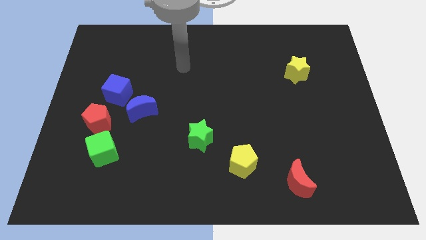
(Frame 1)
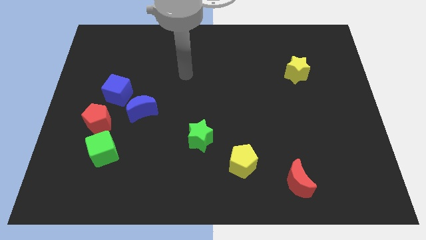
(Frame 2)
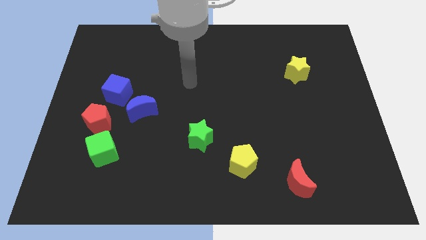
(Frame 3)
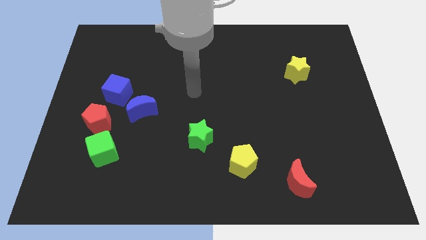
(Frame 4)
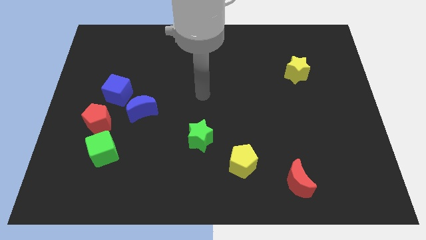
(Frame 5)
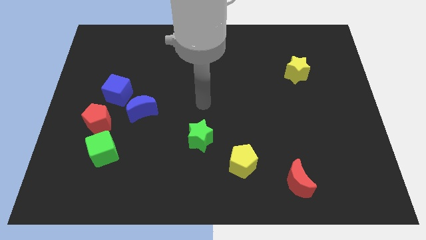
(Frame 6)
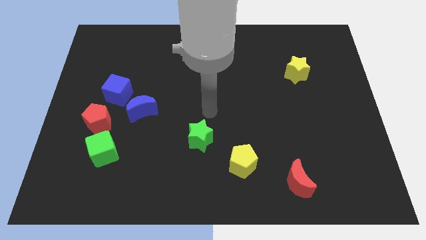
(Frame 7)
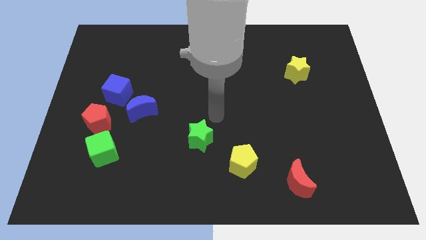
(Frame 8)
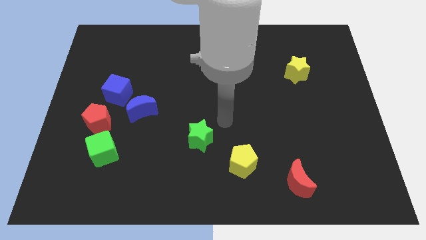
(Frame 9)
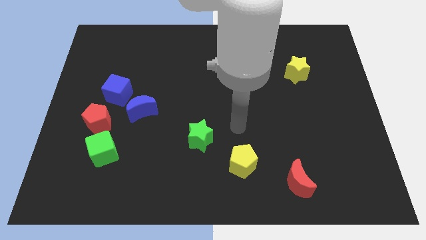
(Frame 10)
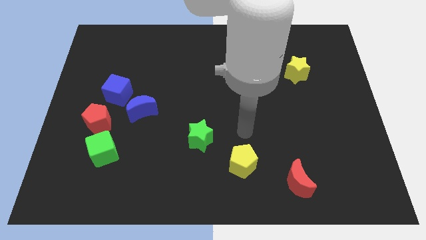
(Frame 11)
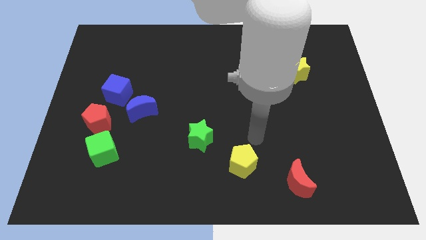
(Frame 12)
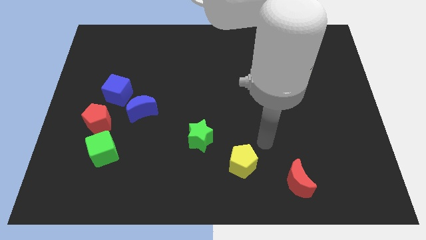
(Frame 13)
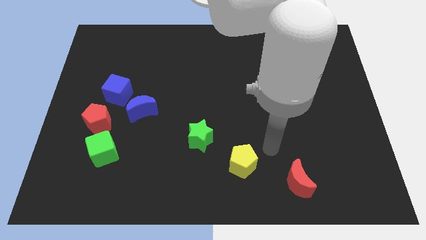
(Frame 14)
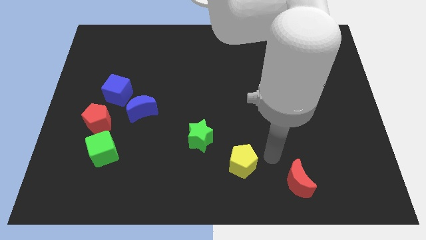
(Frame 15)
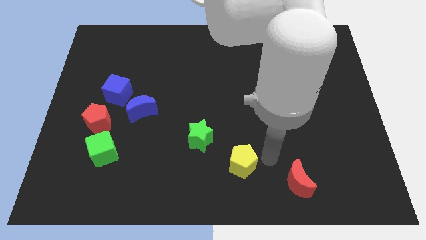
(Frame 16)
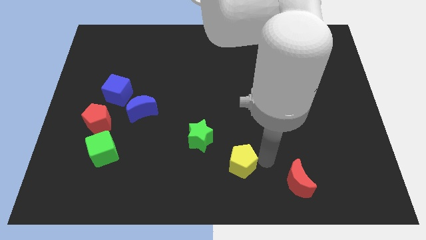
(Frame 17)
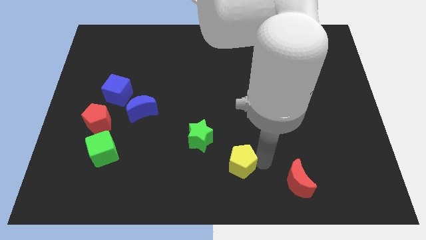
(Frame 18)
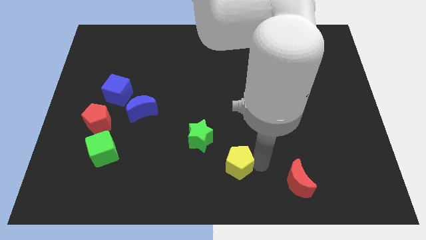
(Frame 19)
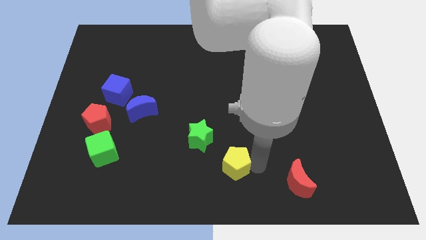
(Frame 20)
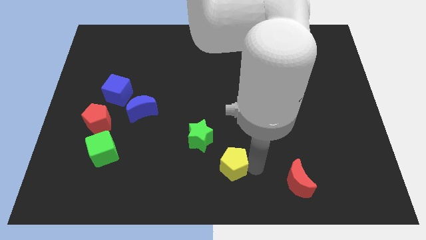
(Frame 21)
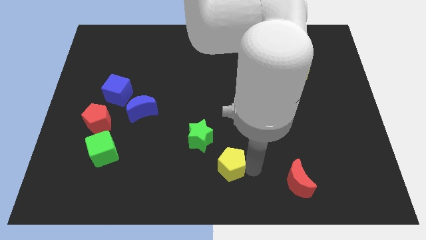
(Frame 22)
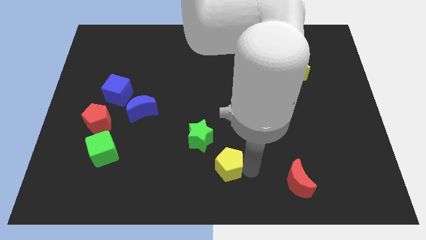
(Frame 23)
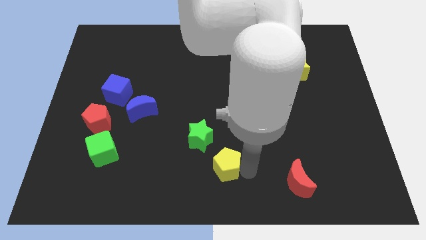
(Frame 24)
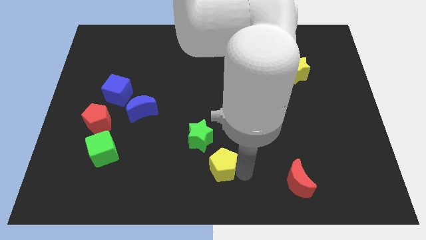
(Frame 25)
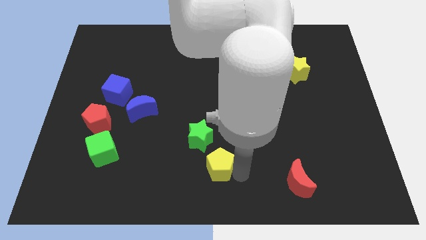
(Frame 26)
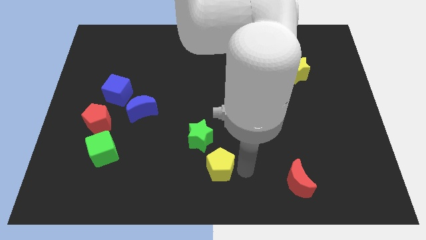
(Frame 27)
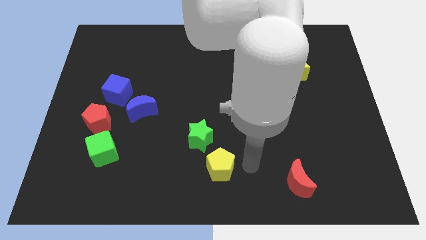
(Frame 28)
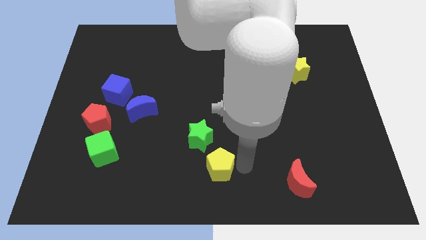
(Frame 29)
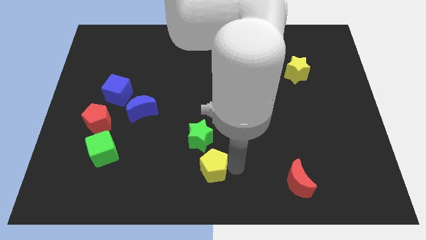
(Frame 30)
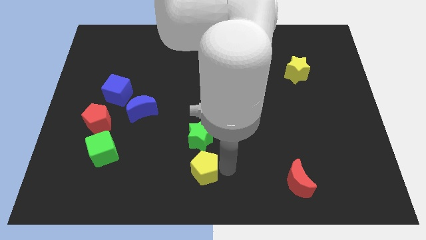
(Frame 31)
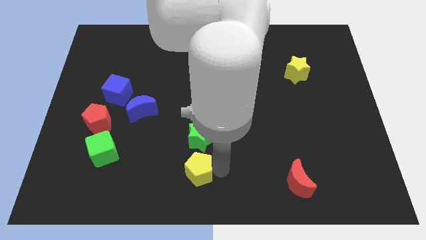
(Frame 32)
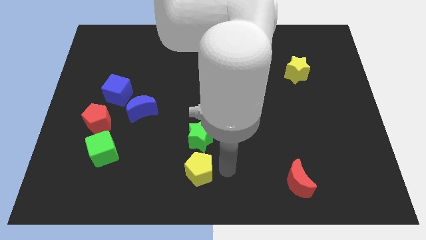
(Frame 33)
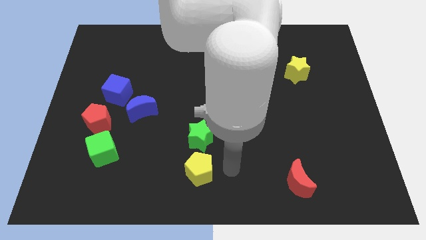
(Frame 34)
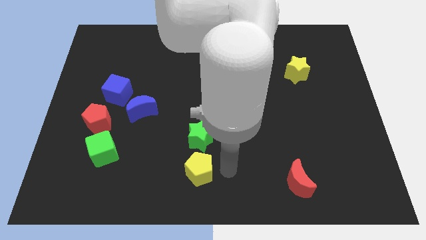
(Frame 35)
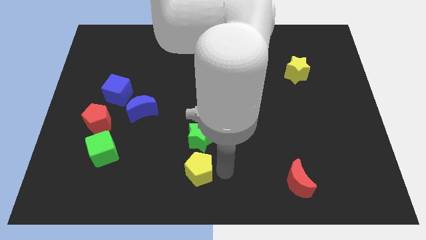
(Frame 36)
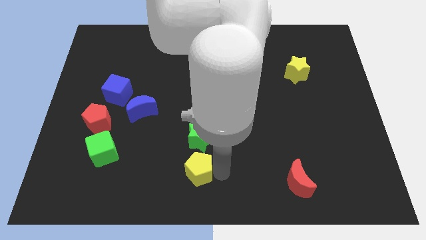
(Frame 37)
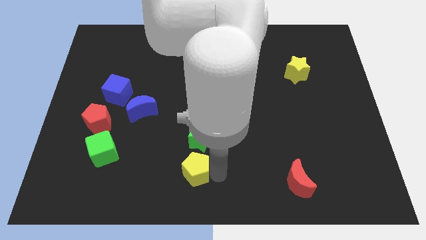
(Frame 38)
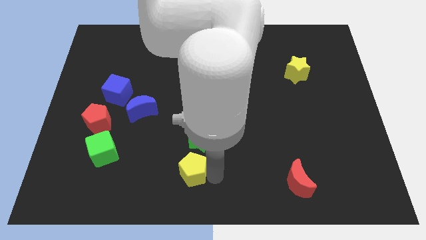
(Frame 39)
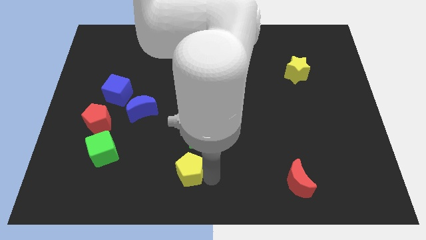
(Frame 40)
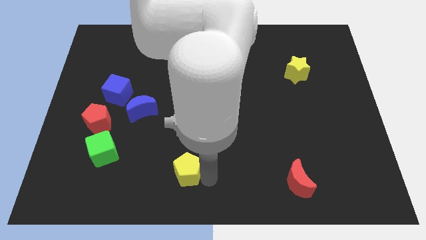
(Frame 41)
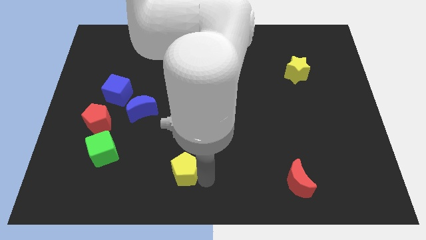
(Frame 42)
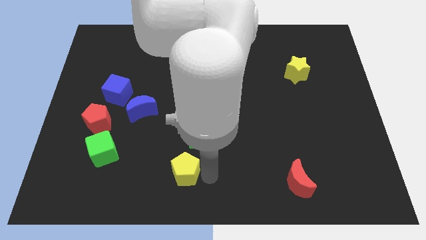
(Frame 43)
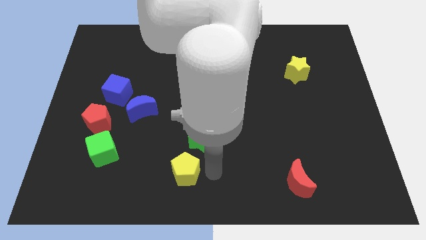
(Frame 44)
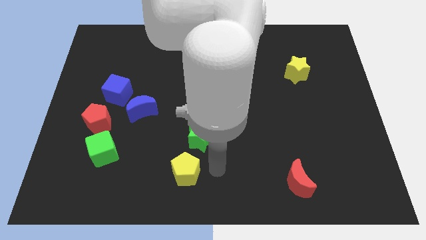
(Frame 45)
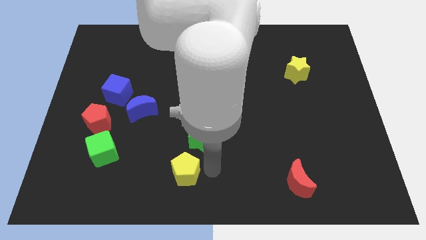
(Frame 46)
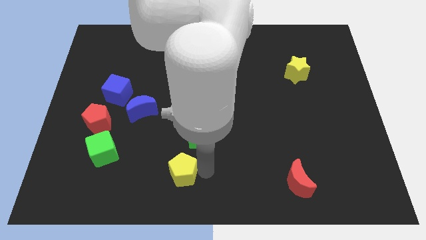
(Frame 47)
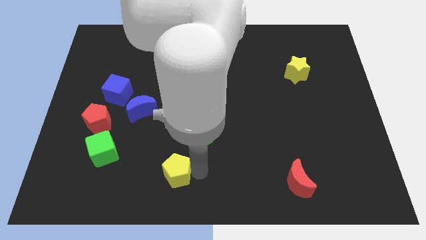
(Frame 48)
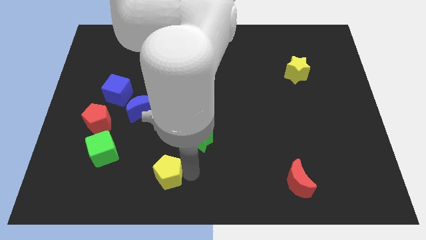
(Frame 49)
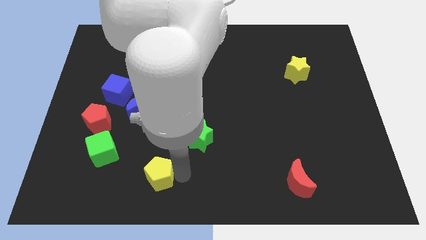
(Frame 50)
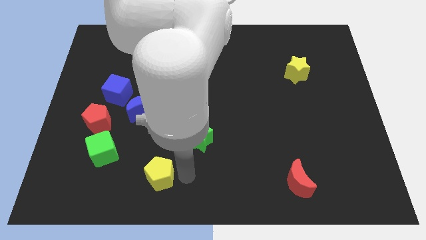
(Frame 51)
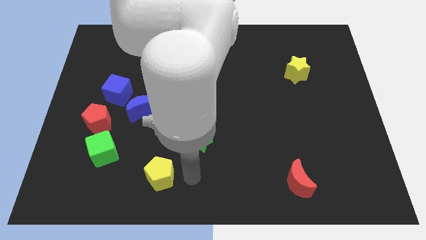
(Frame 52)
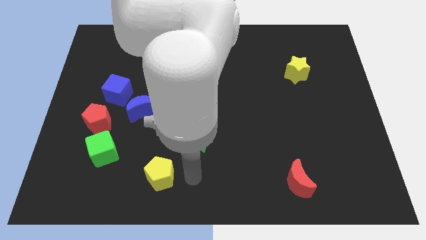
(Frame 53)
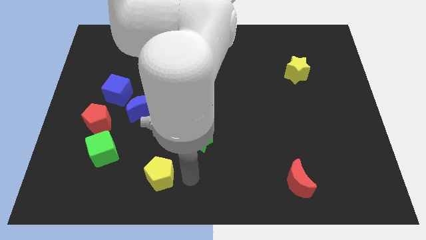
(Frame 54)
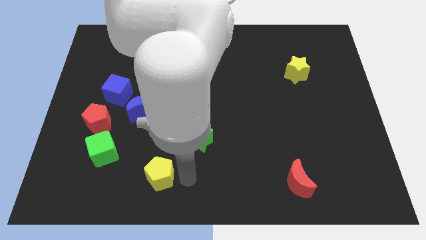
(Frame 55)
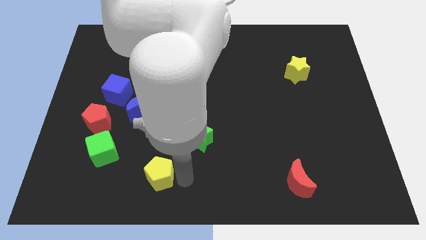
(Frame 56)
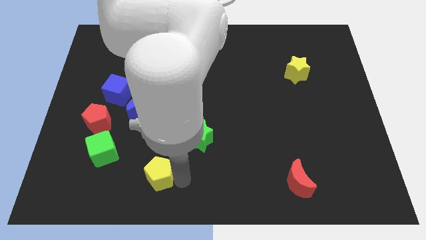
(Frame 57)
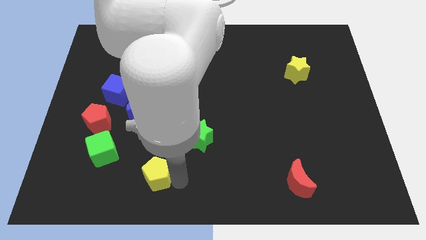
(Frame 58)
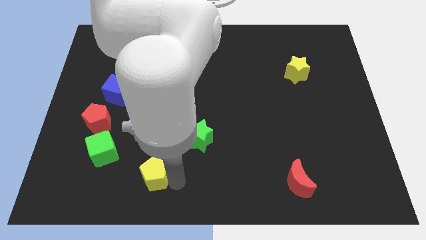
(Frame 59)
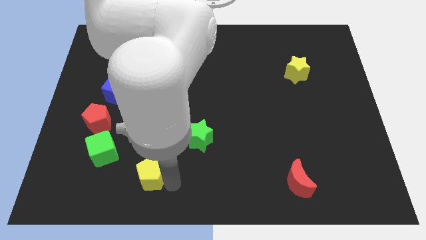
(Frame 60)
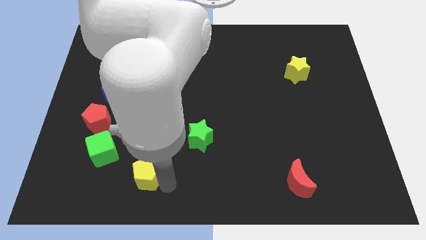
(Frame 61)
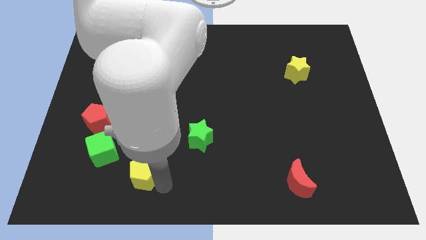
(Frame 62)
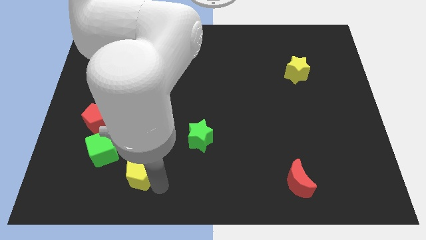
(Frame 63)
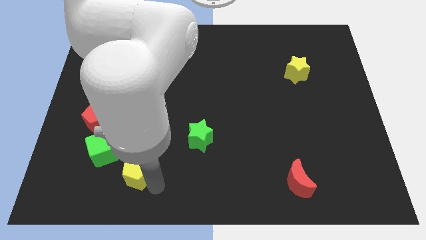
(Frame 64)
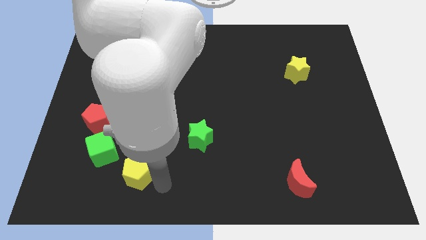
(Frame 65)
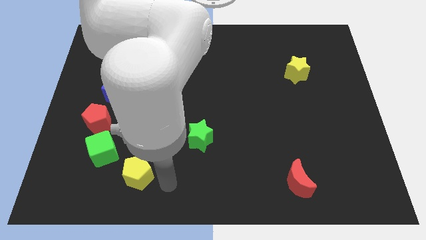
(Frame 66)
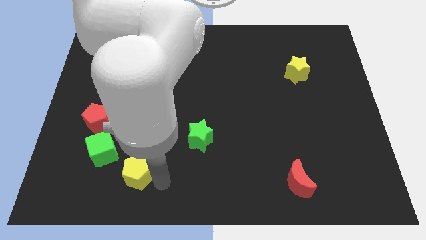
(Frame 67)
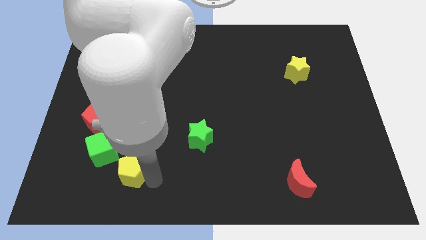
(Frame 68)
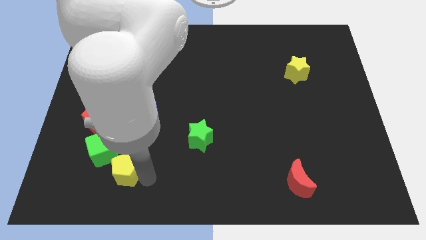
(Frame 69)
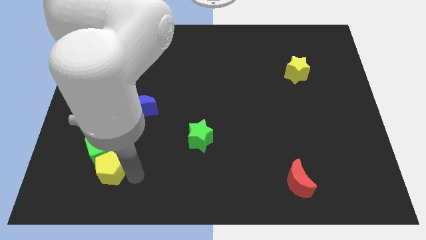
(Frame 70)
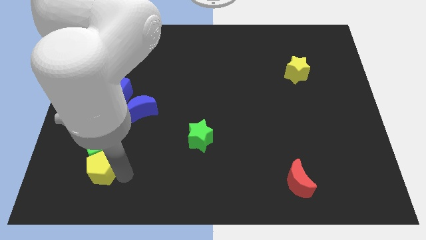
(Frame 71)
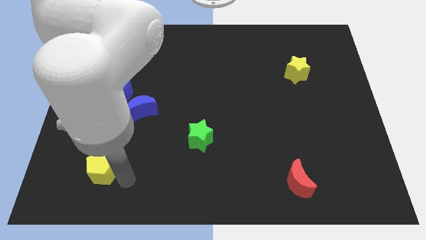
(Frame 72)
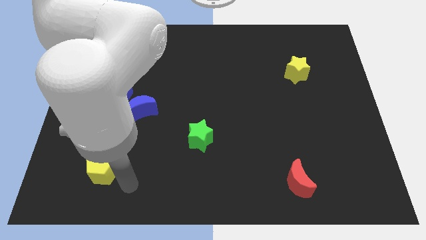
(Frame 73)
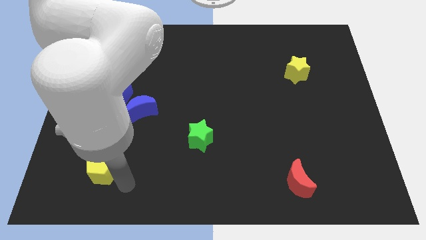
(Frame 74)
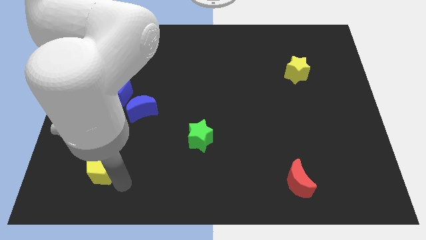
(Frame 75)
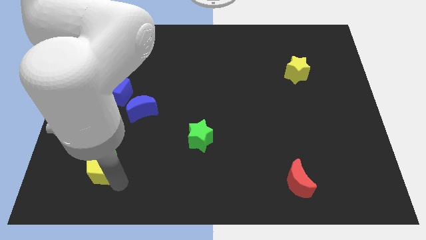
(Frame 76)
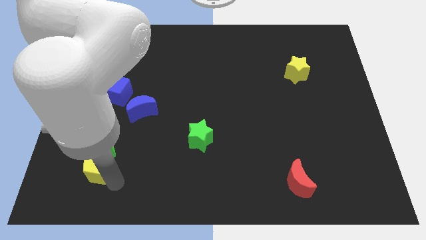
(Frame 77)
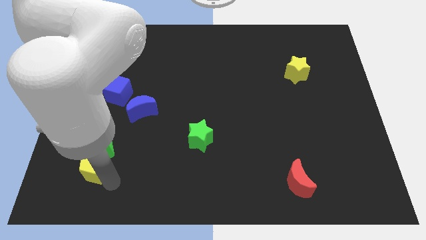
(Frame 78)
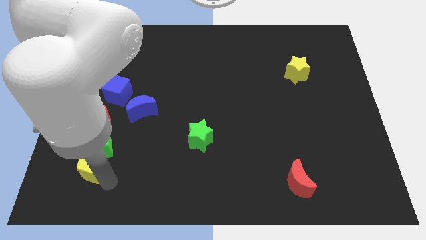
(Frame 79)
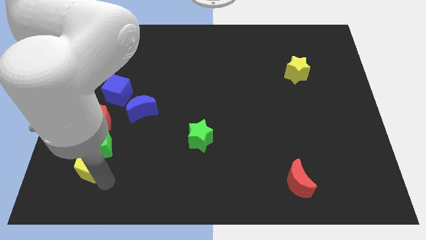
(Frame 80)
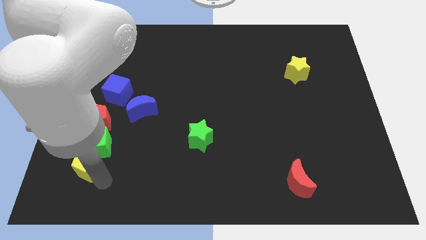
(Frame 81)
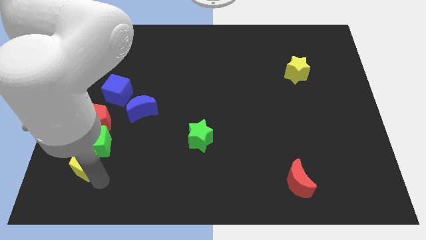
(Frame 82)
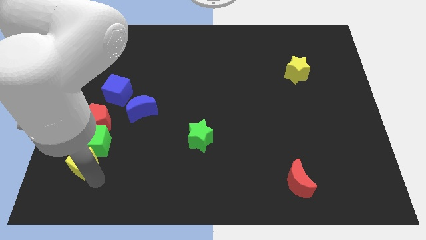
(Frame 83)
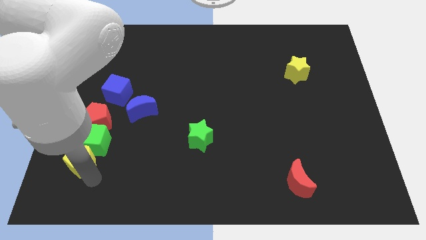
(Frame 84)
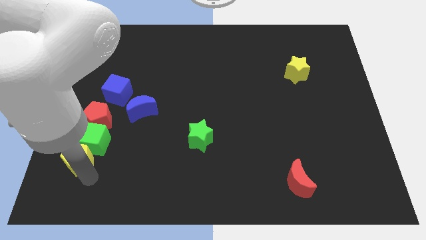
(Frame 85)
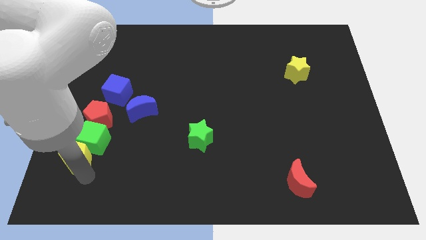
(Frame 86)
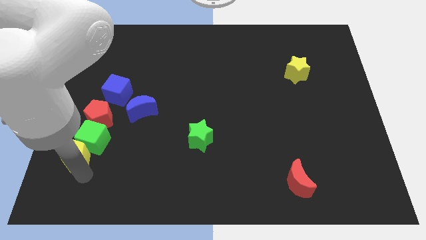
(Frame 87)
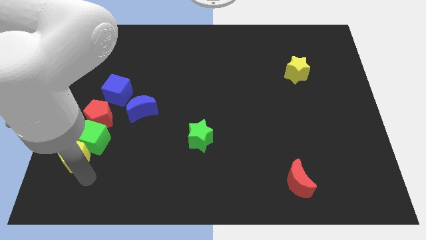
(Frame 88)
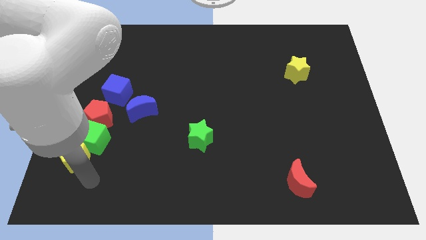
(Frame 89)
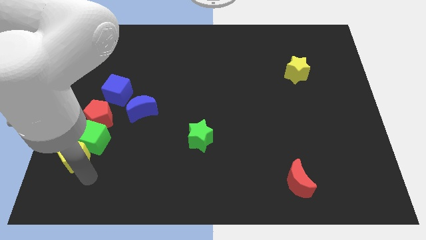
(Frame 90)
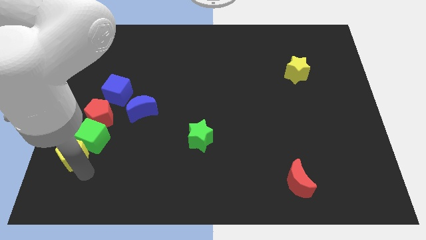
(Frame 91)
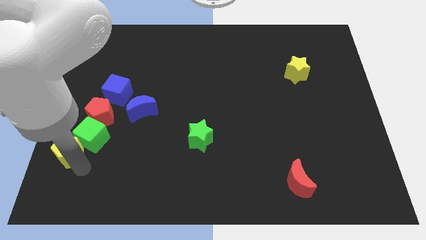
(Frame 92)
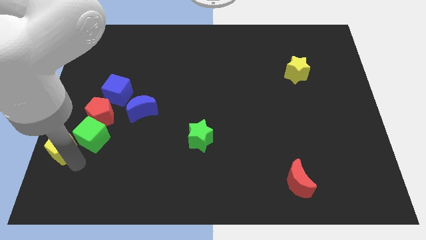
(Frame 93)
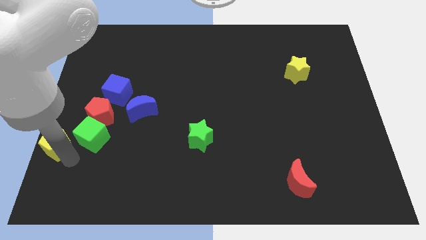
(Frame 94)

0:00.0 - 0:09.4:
slide the yellow pentagon to the left side
